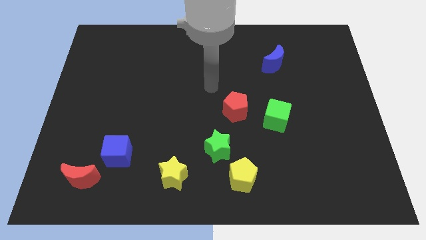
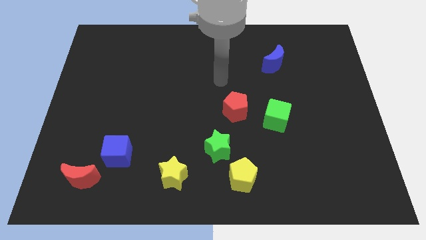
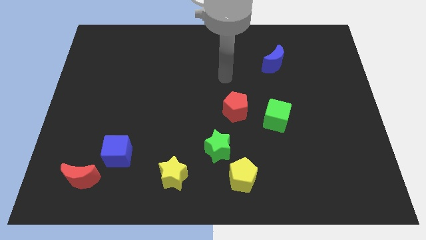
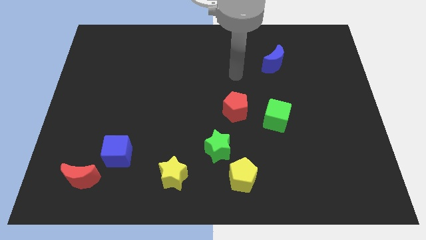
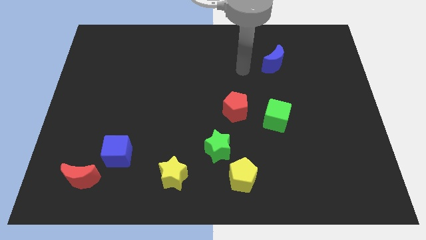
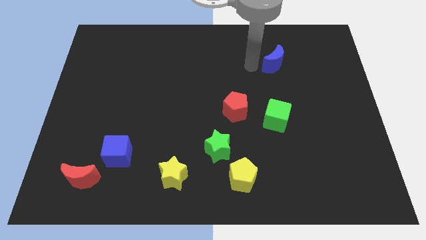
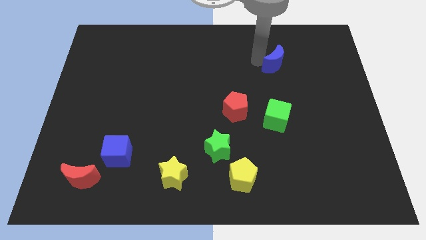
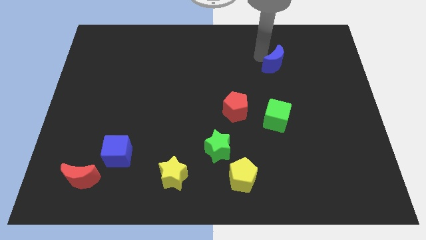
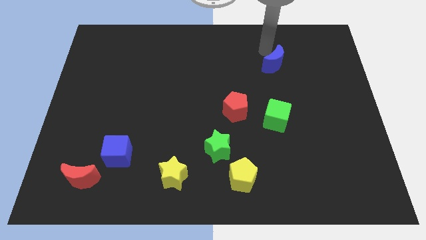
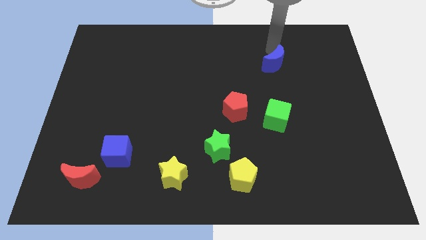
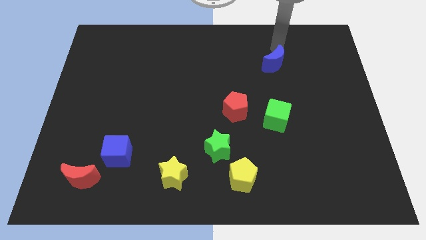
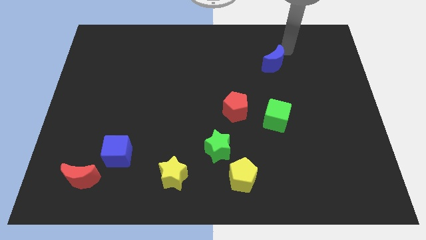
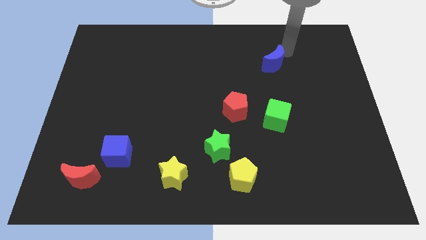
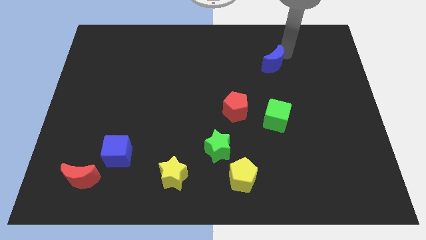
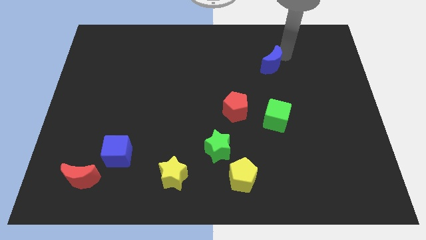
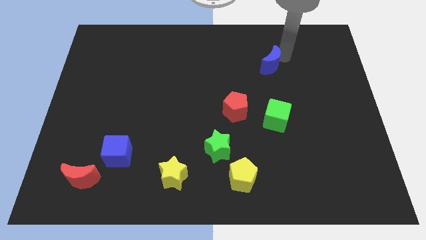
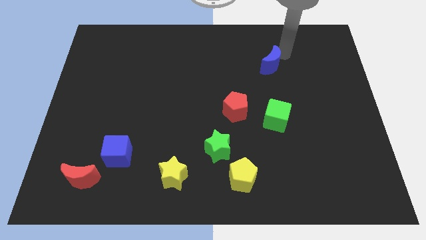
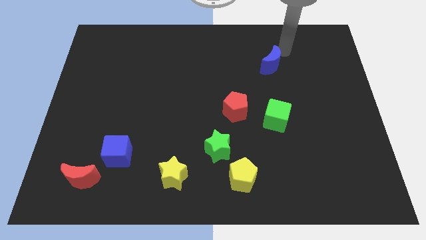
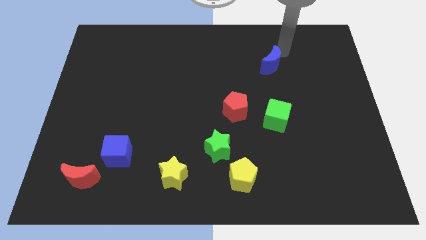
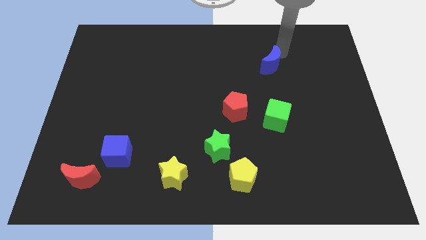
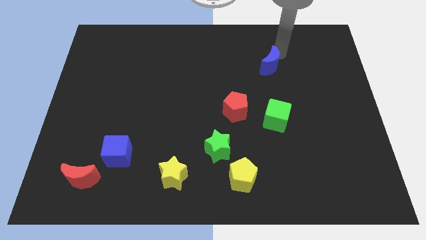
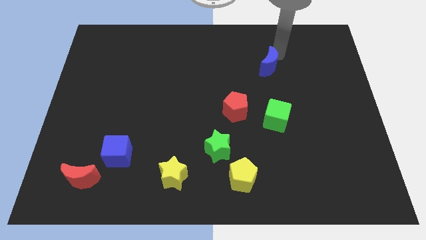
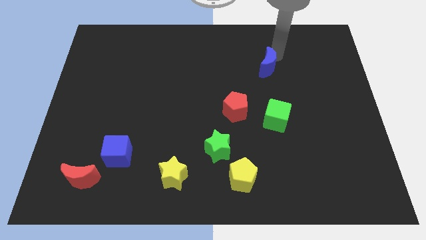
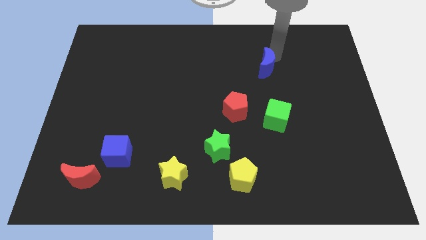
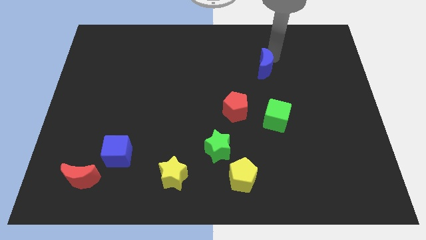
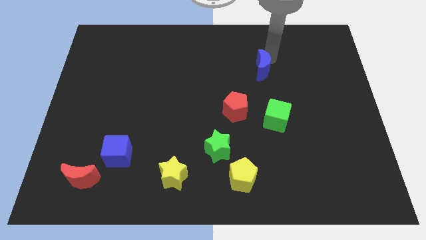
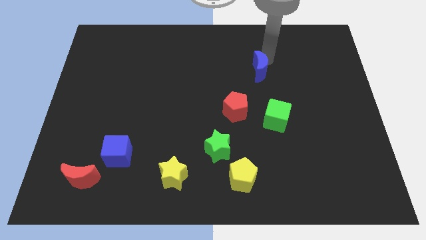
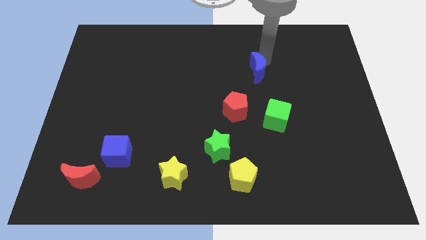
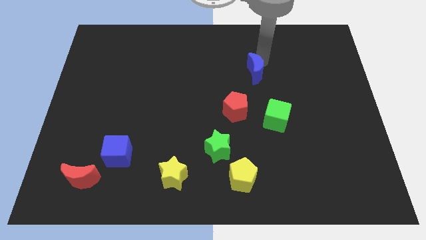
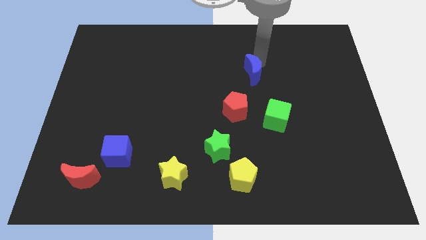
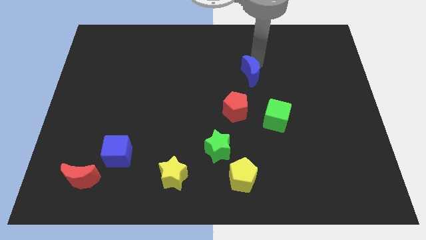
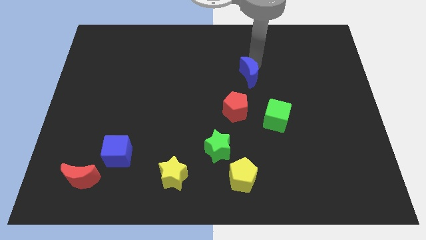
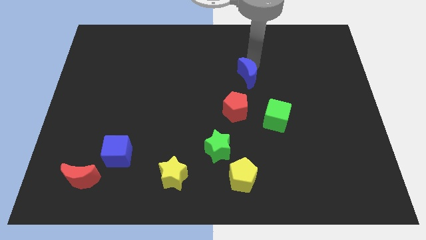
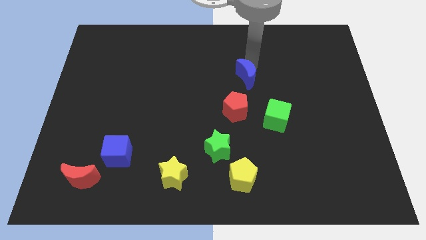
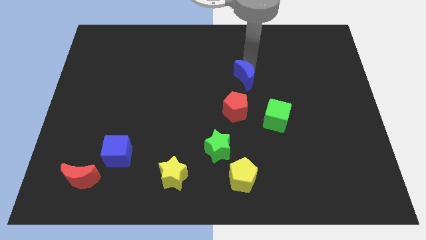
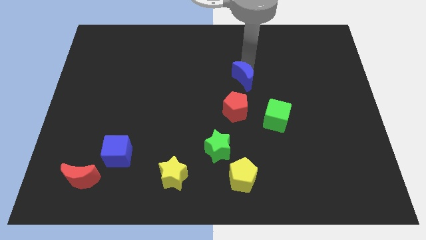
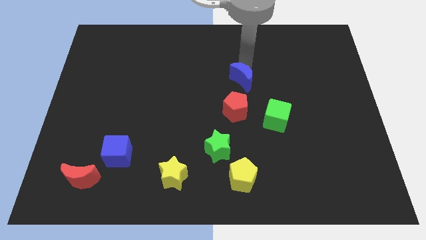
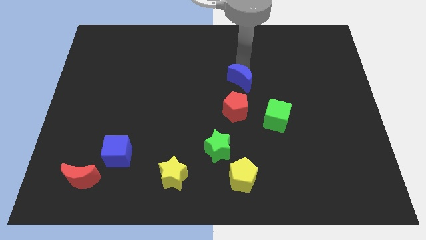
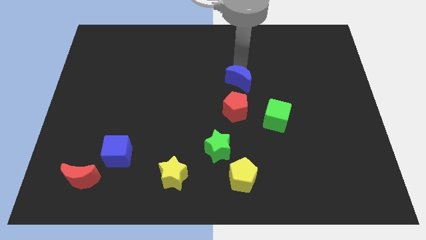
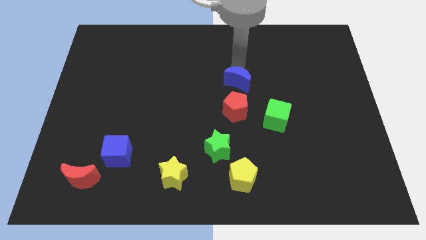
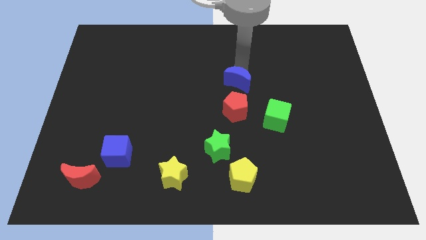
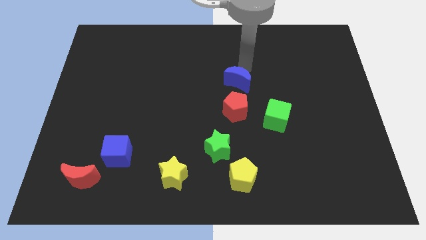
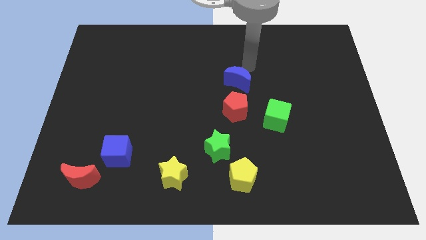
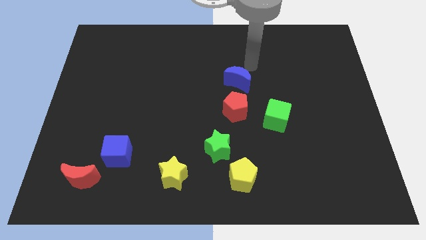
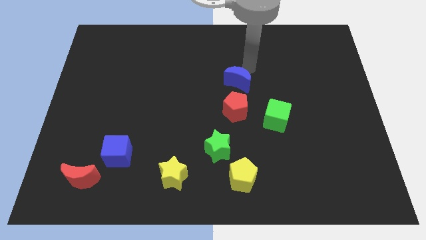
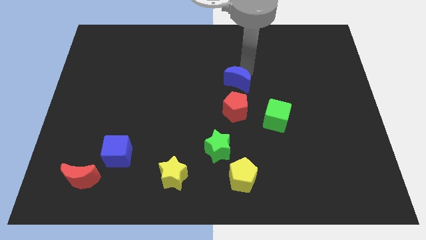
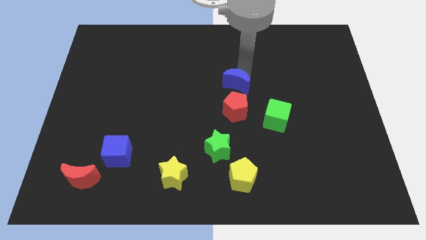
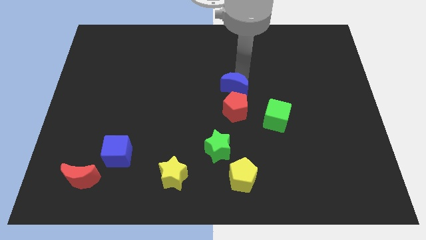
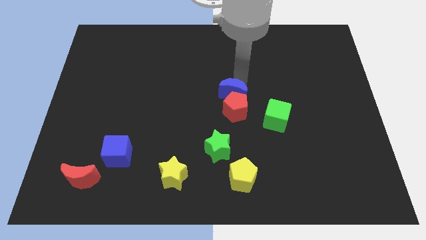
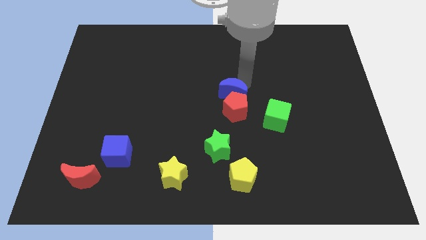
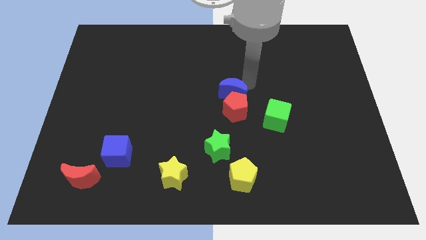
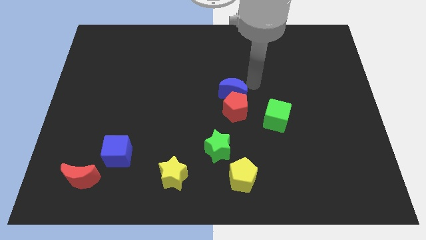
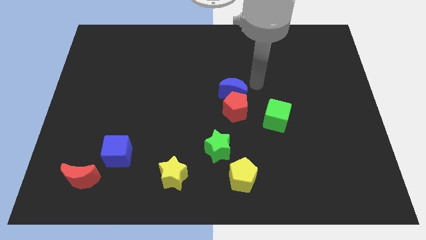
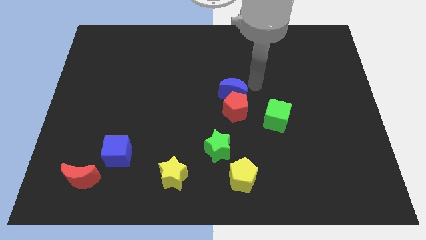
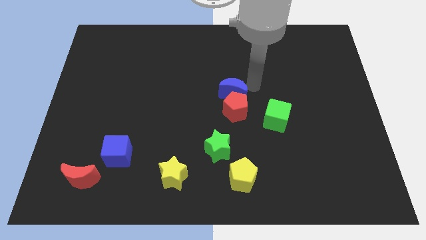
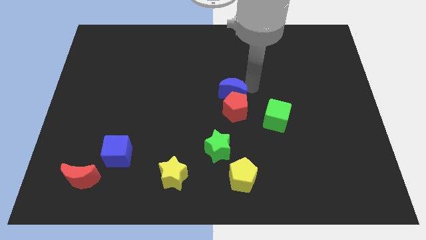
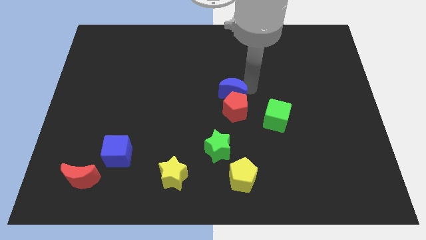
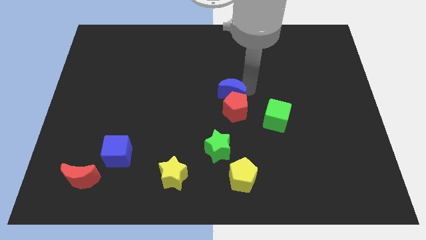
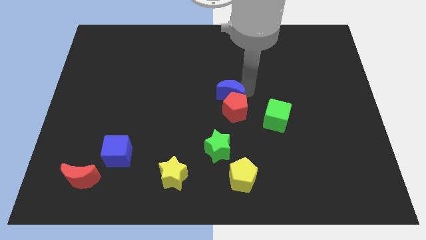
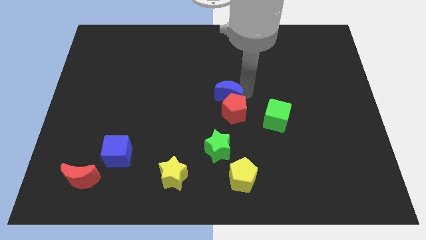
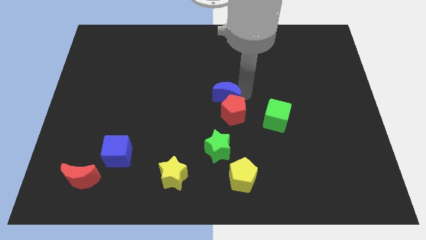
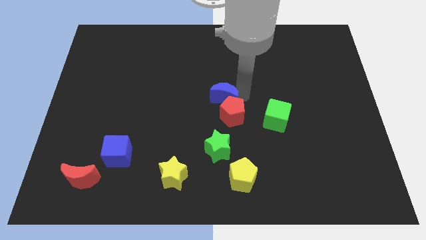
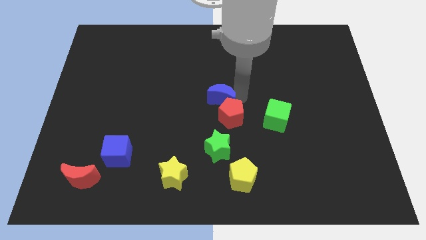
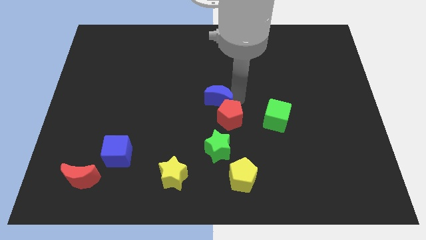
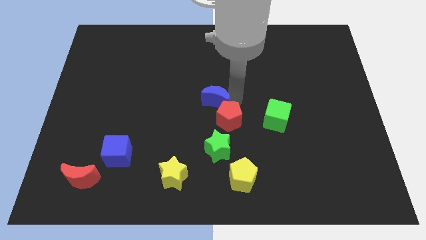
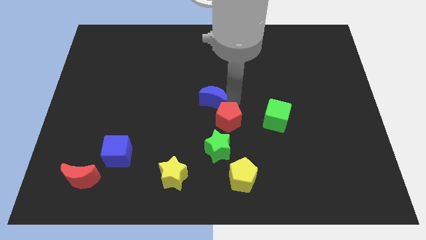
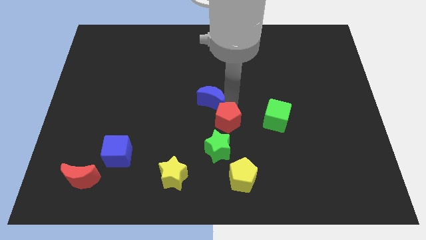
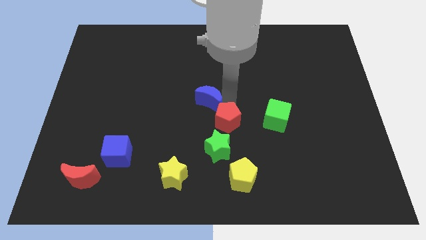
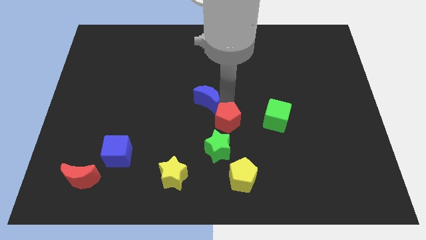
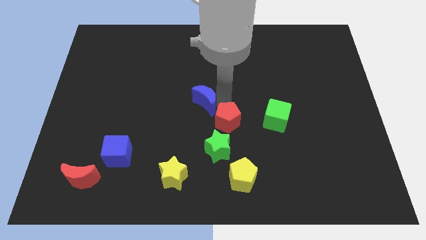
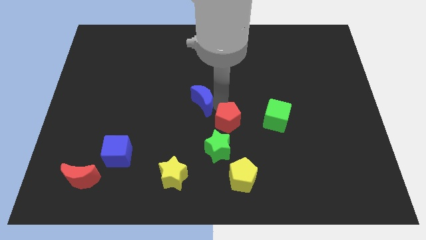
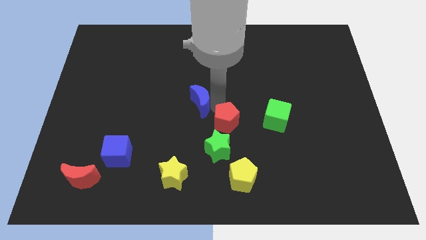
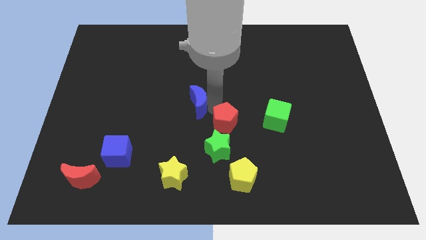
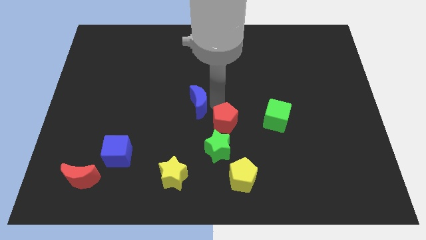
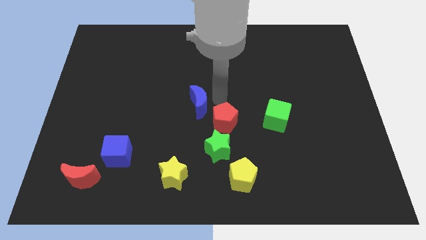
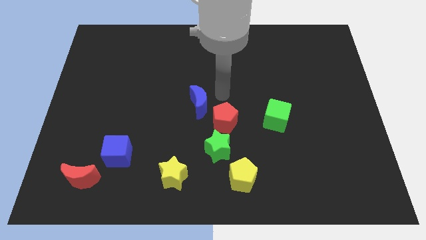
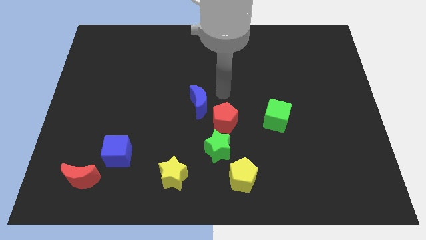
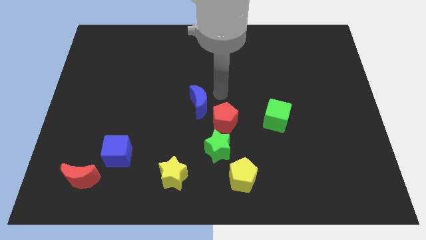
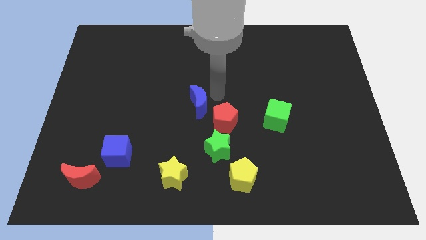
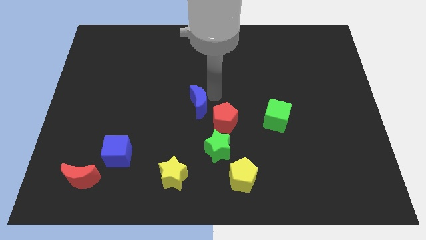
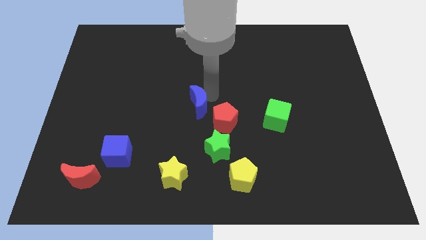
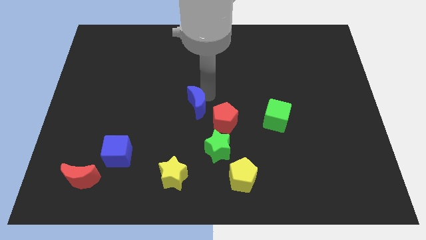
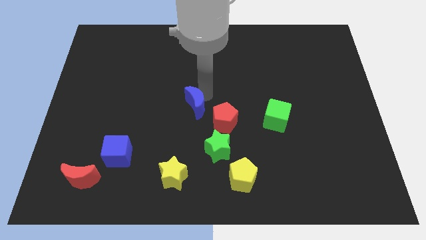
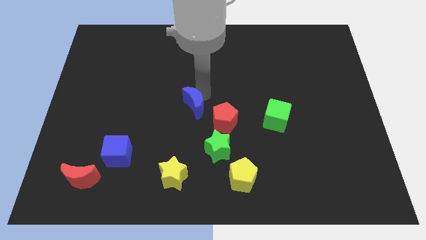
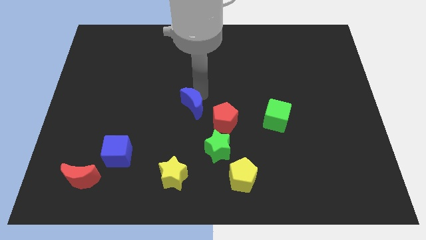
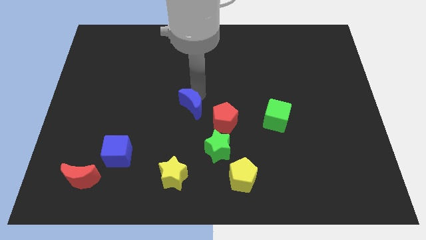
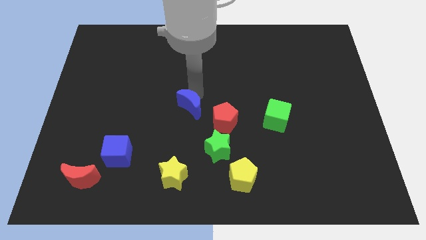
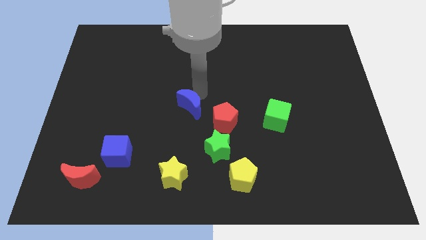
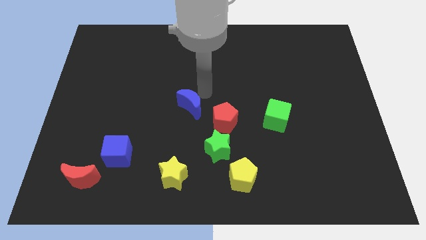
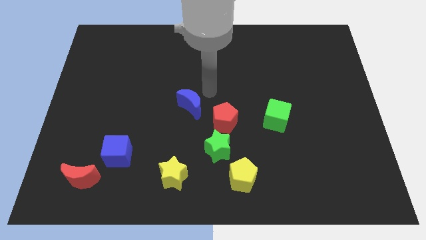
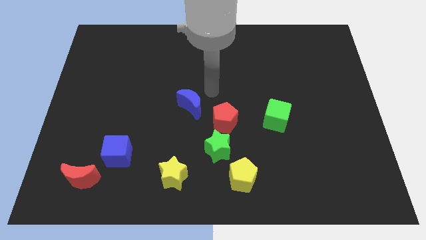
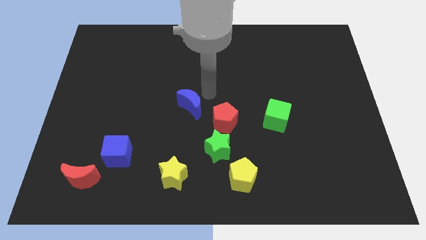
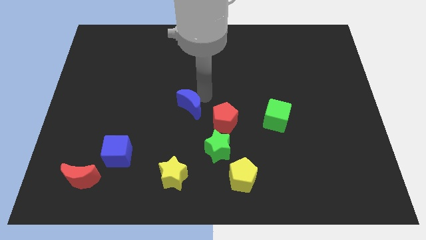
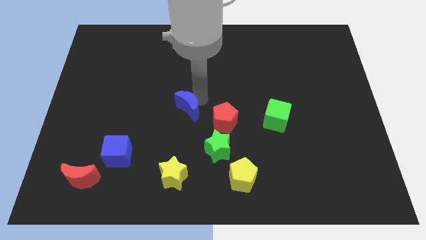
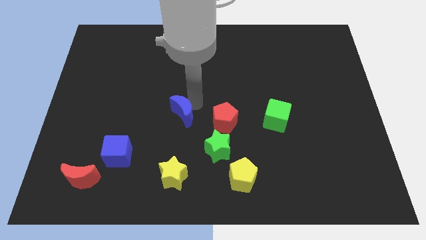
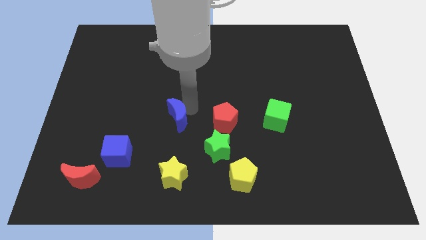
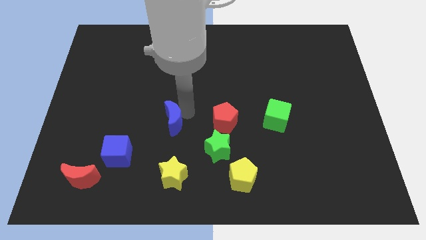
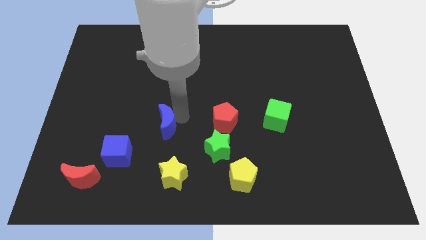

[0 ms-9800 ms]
push the blue moon to the top right side of the blue cube
